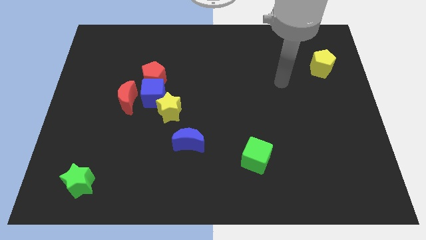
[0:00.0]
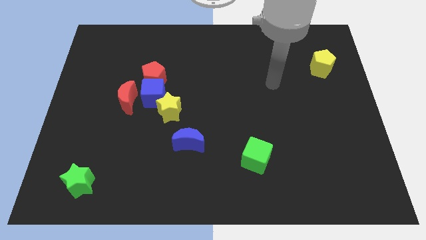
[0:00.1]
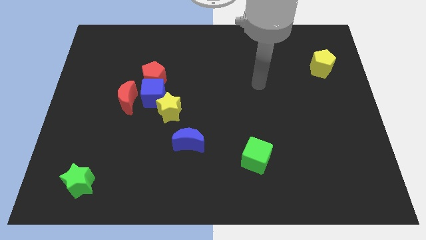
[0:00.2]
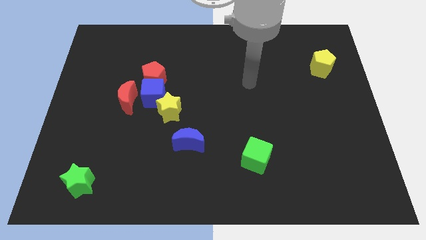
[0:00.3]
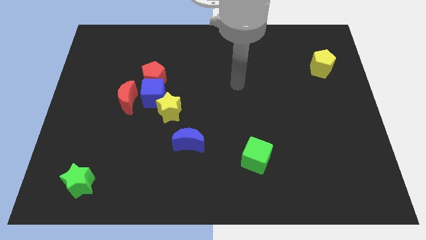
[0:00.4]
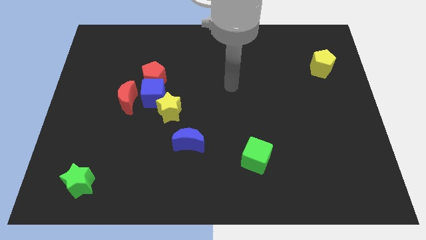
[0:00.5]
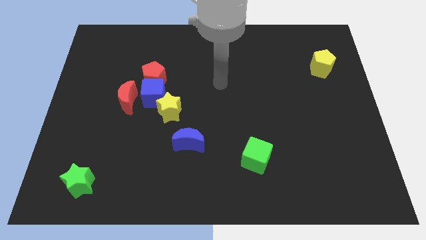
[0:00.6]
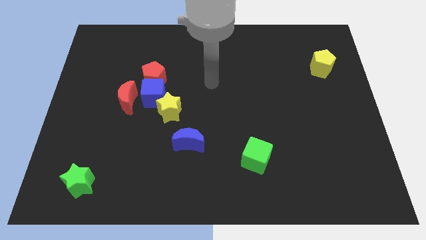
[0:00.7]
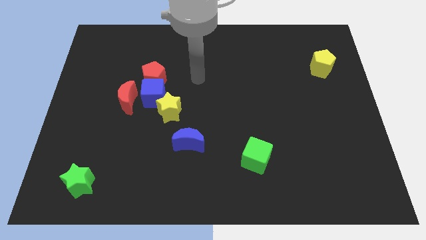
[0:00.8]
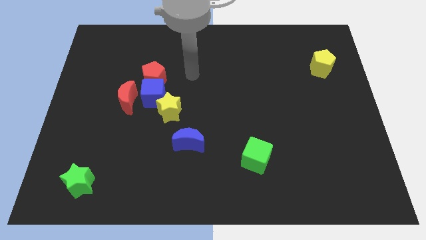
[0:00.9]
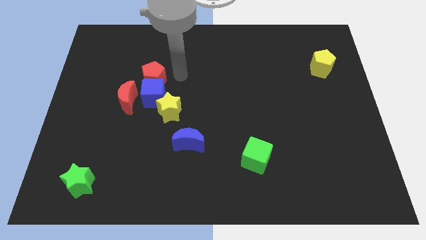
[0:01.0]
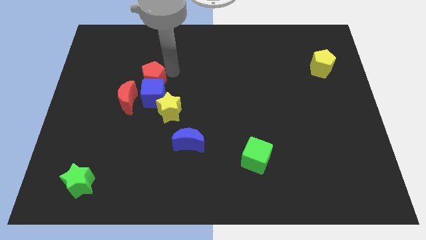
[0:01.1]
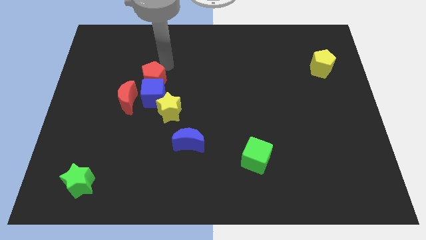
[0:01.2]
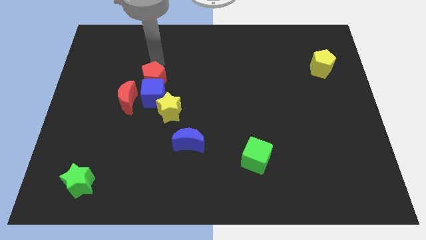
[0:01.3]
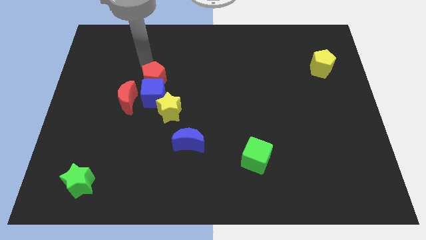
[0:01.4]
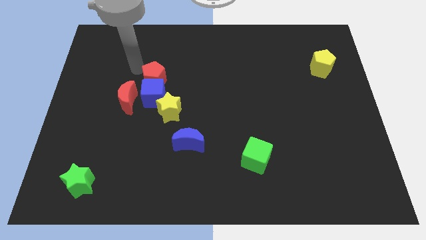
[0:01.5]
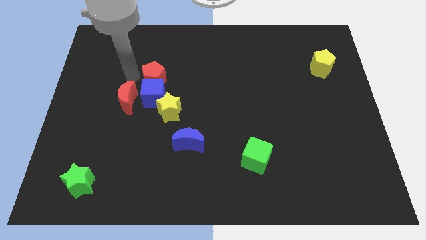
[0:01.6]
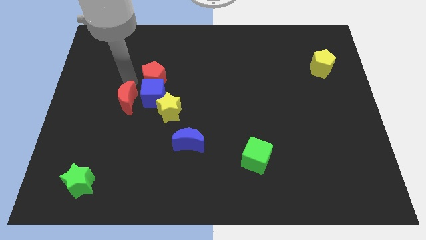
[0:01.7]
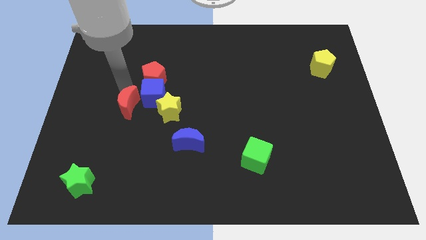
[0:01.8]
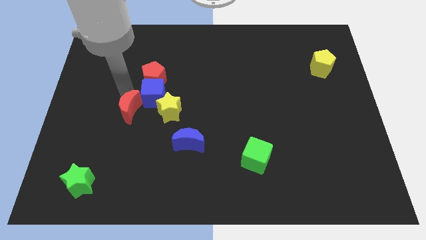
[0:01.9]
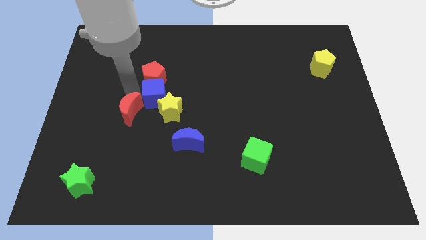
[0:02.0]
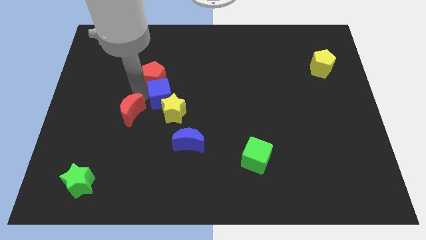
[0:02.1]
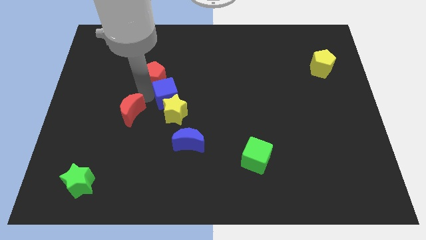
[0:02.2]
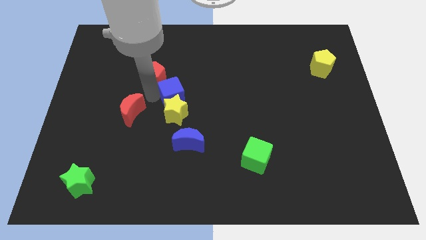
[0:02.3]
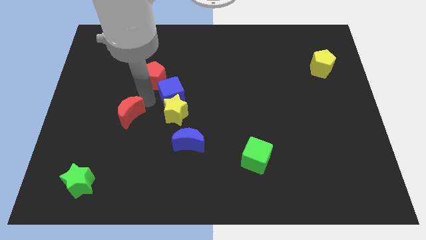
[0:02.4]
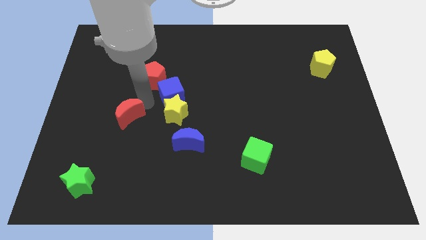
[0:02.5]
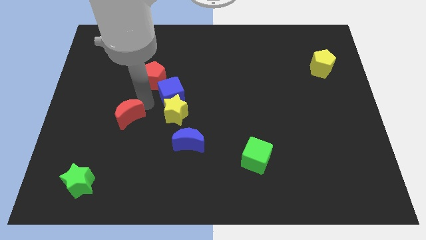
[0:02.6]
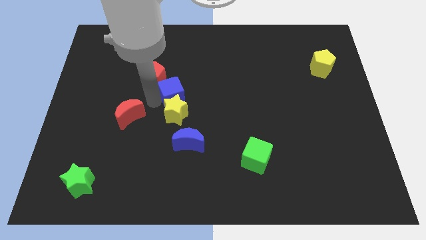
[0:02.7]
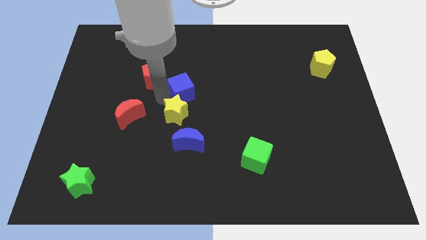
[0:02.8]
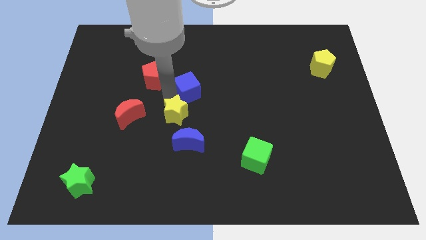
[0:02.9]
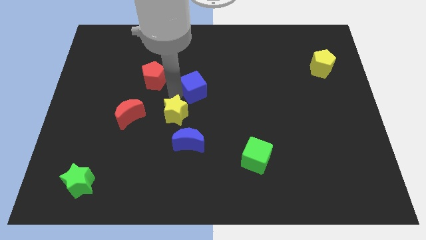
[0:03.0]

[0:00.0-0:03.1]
pull the blue cube apart from the clump

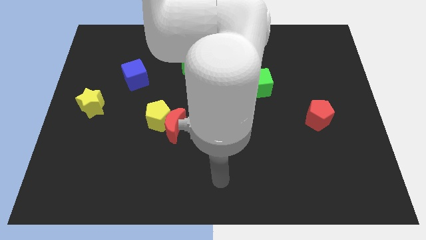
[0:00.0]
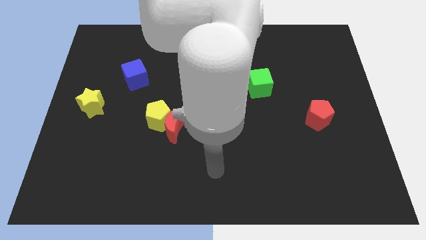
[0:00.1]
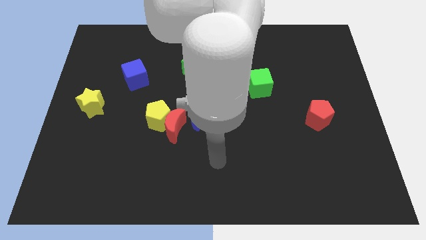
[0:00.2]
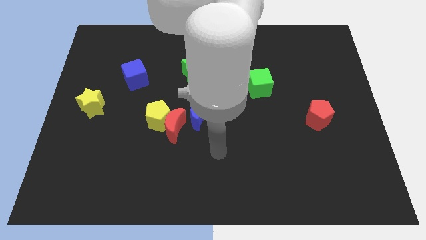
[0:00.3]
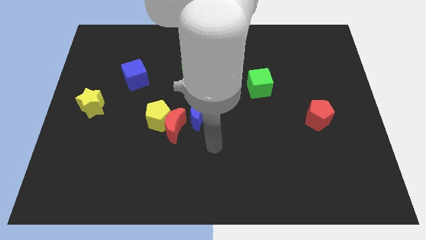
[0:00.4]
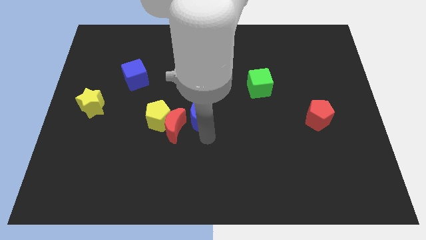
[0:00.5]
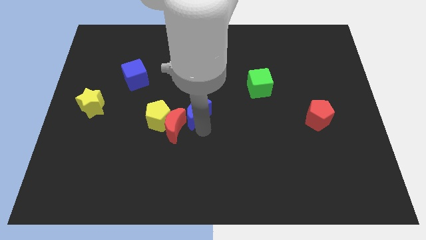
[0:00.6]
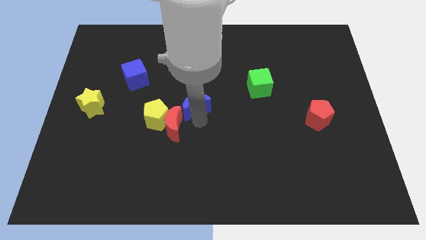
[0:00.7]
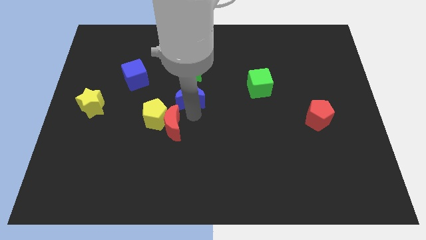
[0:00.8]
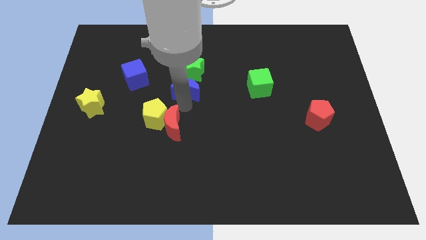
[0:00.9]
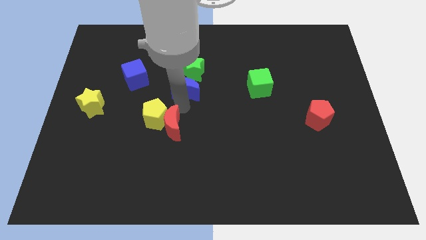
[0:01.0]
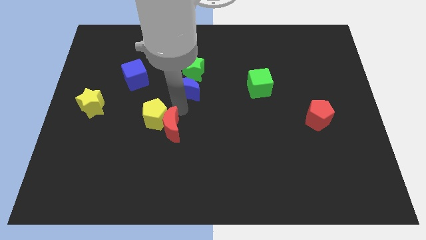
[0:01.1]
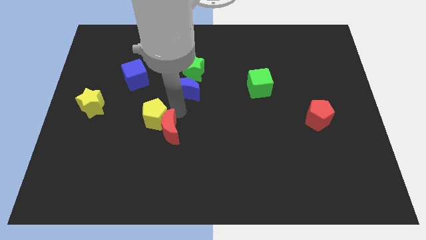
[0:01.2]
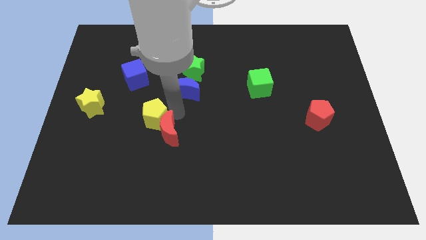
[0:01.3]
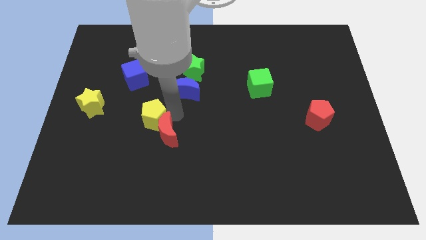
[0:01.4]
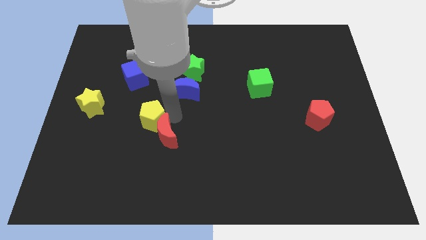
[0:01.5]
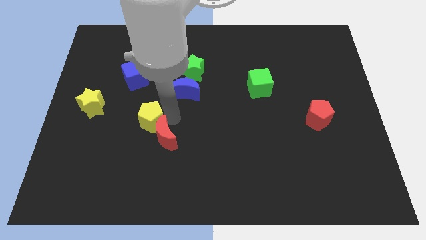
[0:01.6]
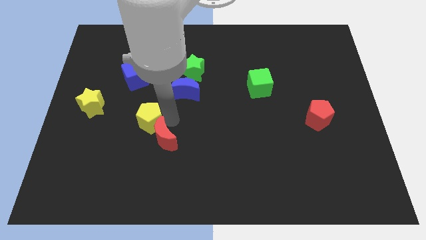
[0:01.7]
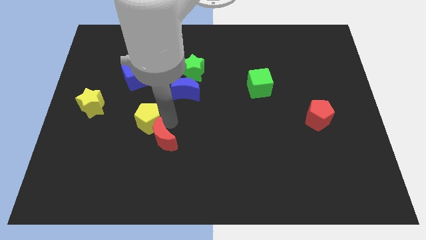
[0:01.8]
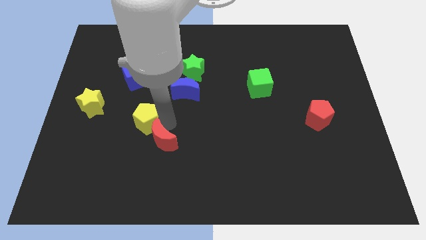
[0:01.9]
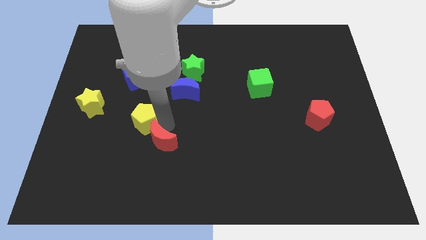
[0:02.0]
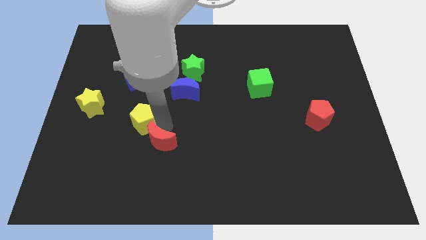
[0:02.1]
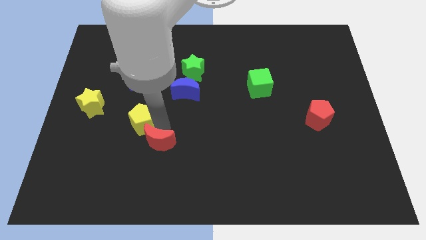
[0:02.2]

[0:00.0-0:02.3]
pull the red moon apart from the yellow pentagon and blue moon

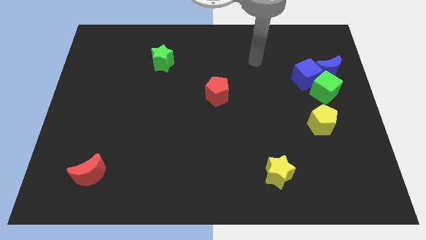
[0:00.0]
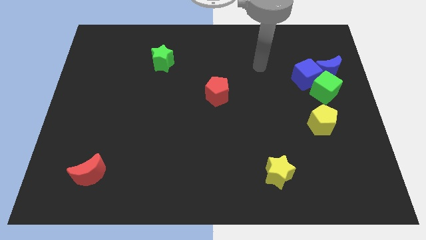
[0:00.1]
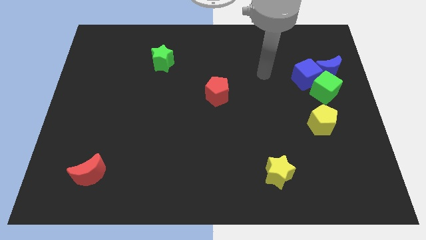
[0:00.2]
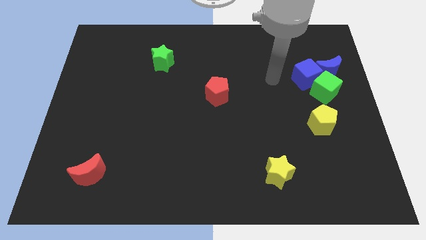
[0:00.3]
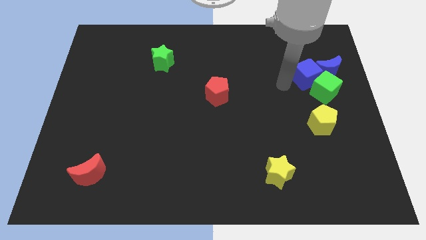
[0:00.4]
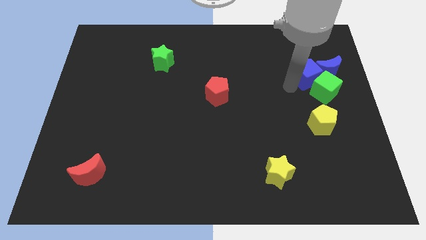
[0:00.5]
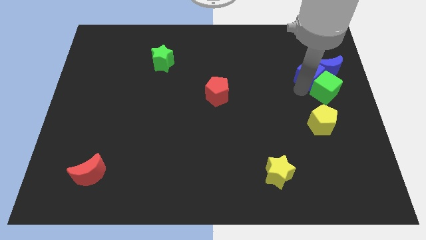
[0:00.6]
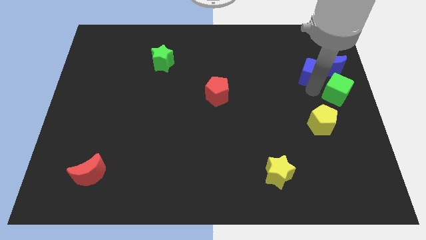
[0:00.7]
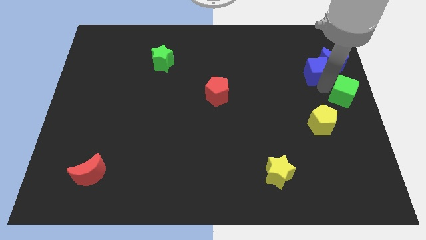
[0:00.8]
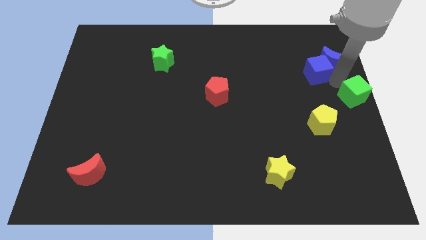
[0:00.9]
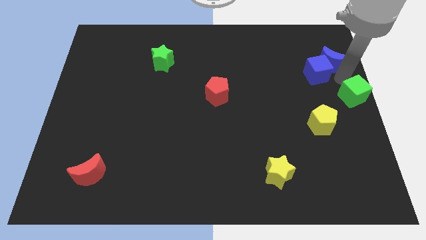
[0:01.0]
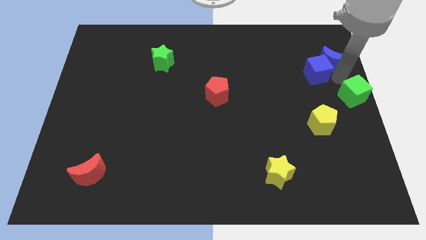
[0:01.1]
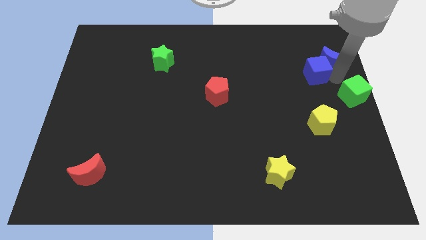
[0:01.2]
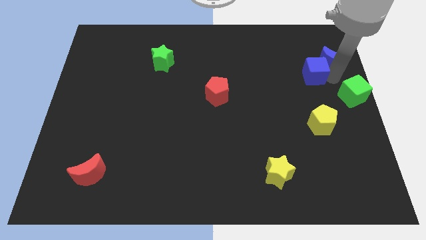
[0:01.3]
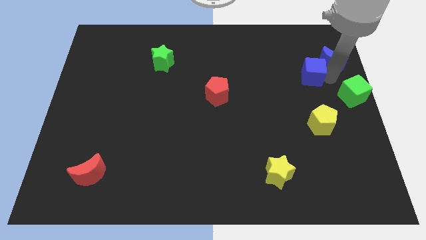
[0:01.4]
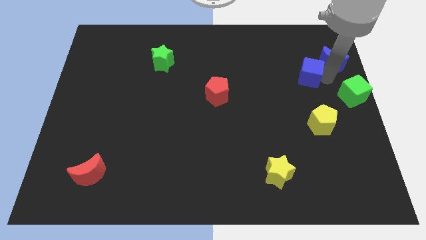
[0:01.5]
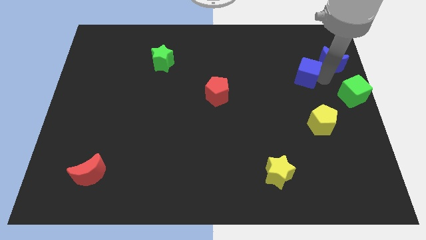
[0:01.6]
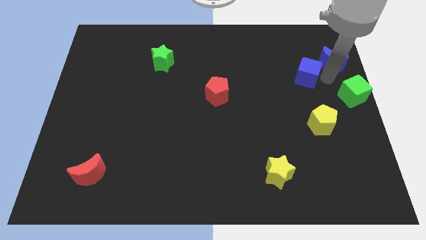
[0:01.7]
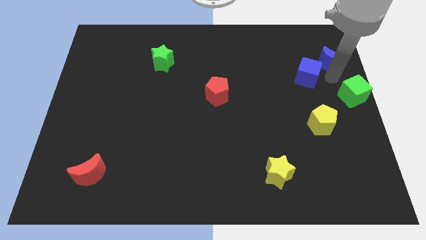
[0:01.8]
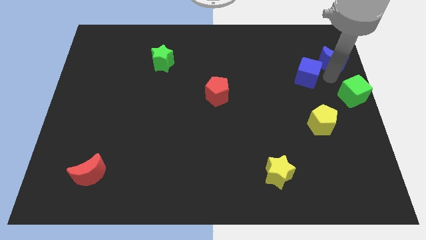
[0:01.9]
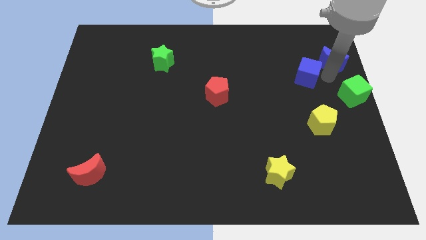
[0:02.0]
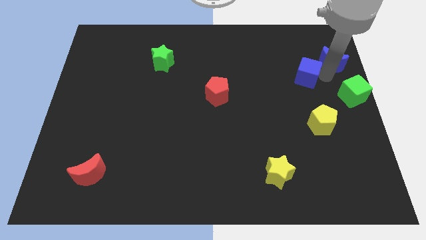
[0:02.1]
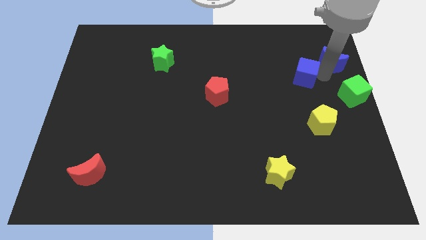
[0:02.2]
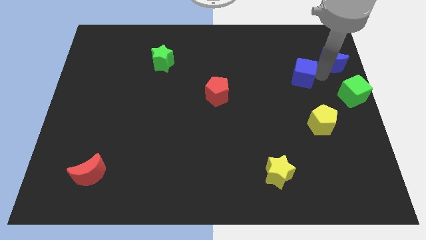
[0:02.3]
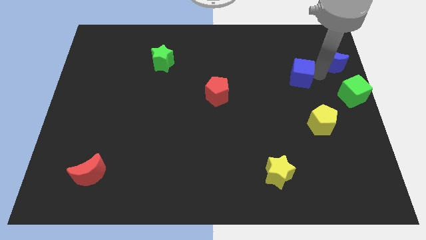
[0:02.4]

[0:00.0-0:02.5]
move the blue cube away from the green cube and blue moon

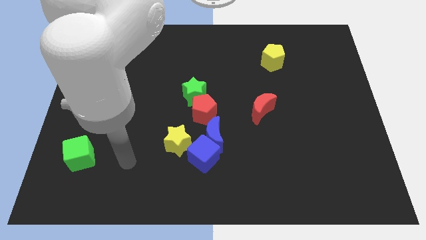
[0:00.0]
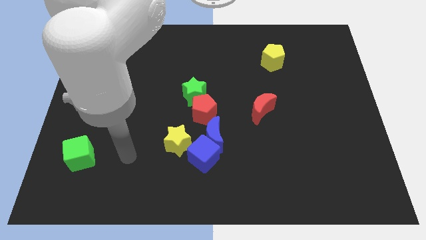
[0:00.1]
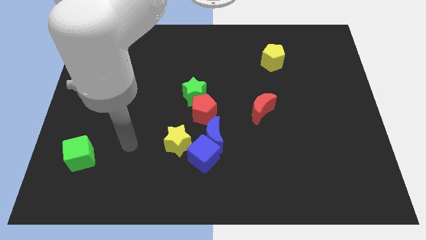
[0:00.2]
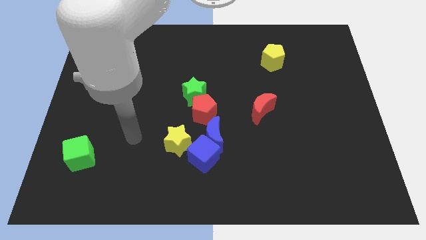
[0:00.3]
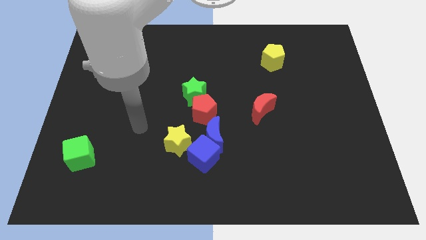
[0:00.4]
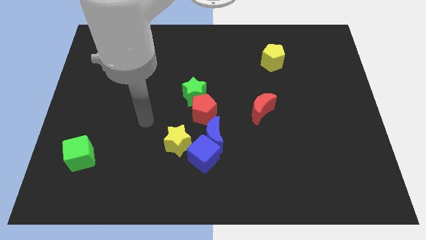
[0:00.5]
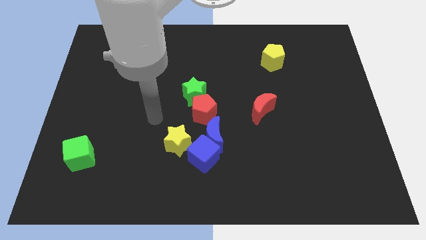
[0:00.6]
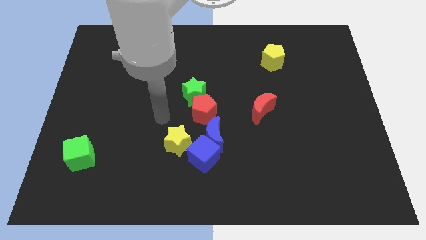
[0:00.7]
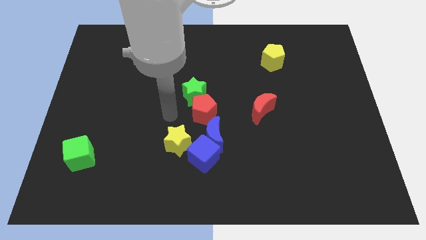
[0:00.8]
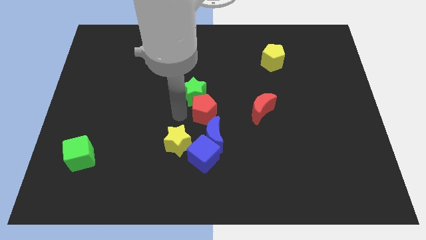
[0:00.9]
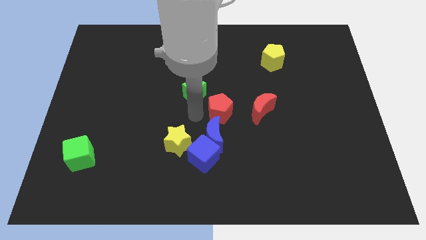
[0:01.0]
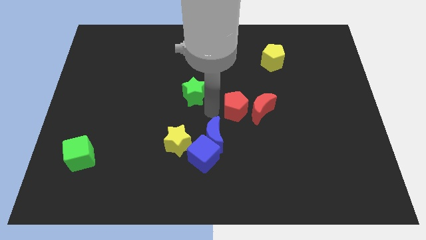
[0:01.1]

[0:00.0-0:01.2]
separate the green star from the red pentagon

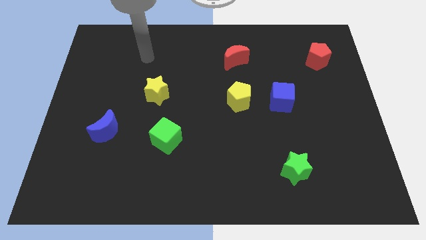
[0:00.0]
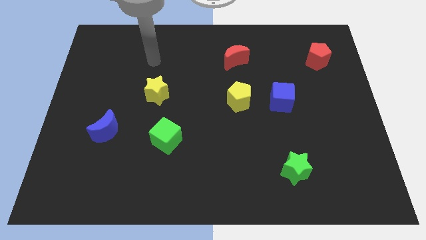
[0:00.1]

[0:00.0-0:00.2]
move the blue cube away from the yellow pentagon
